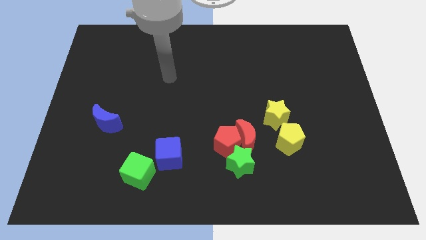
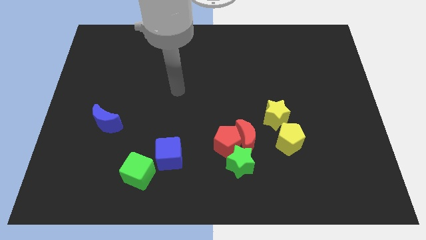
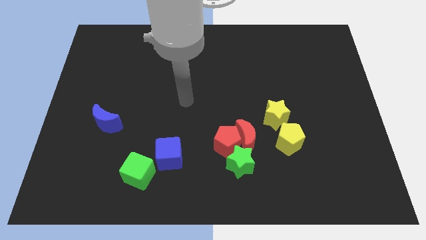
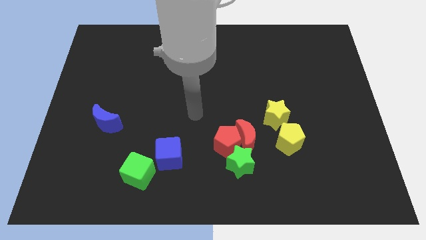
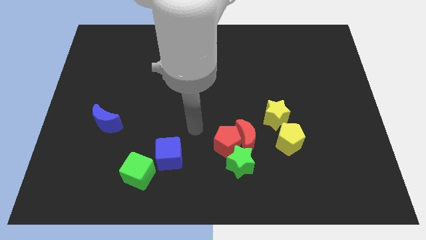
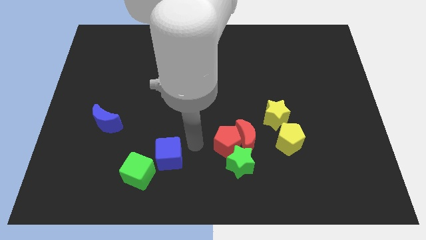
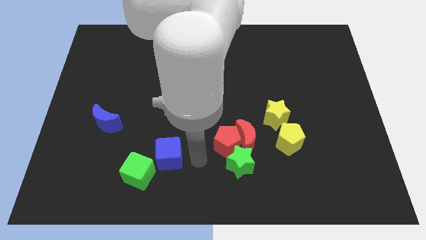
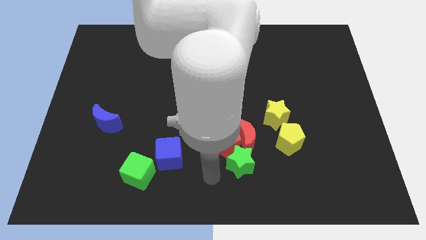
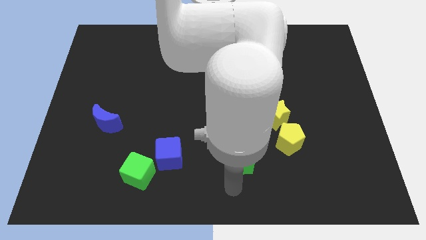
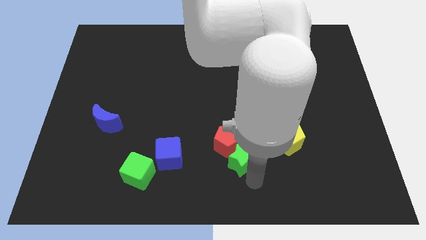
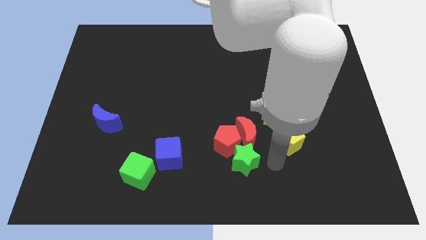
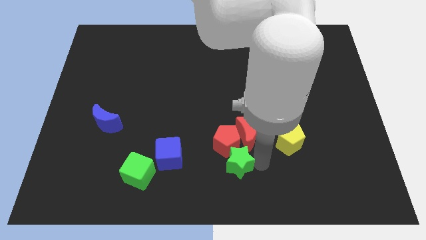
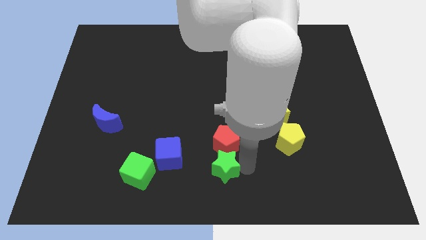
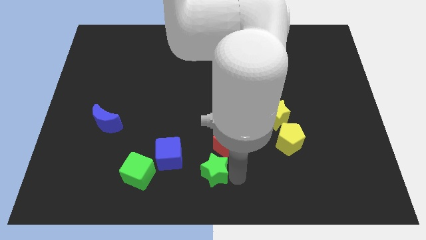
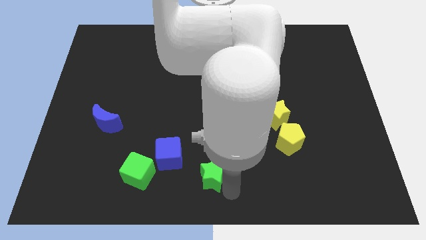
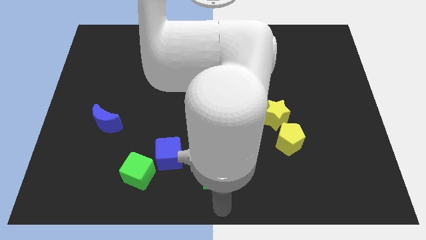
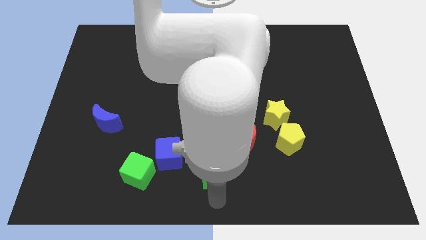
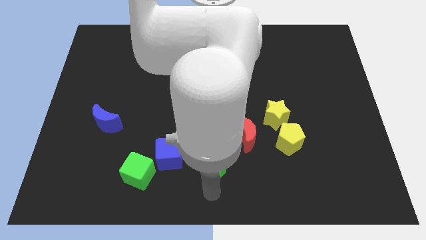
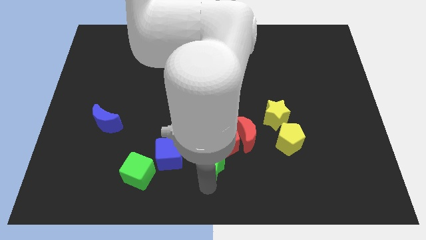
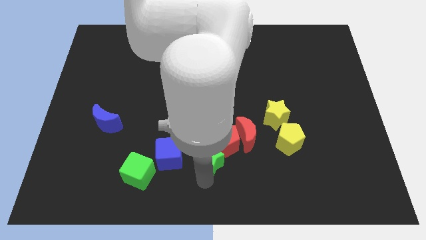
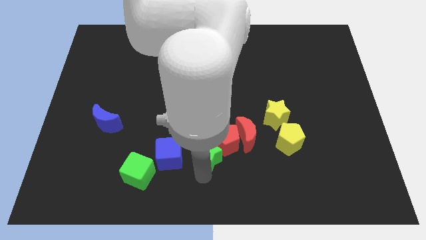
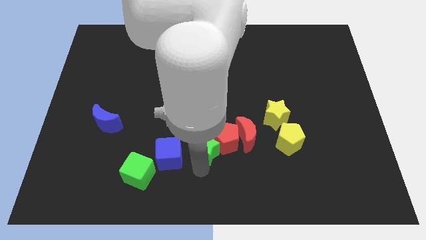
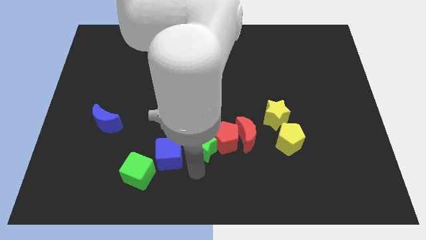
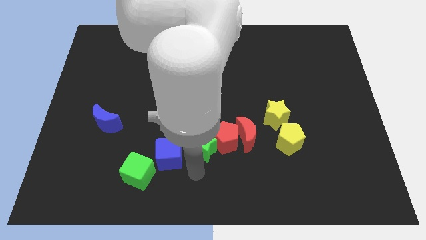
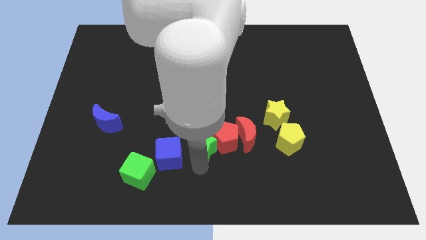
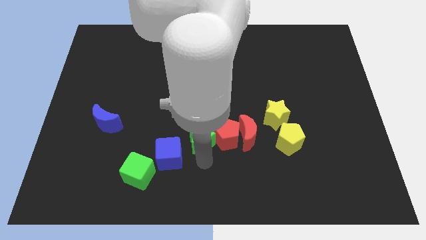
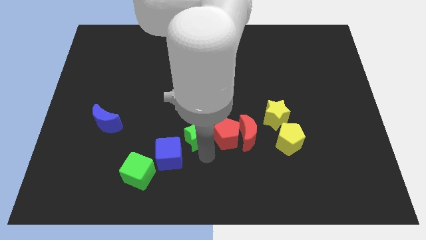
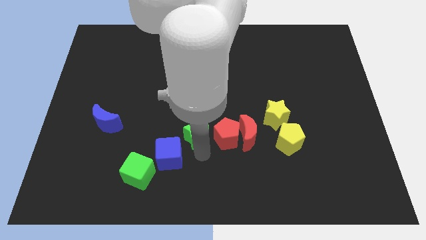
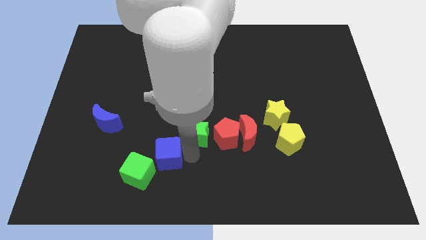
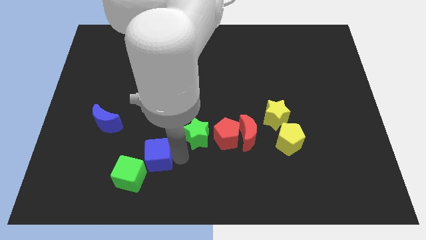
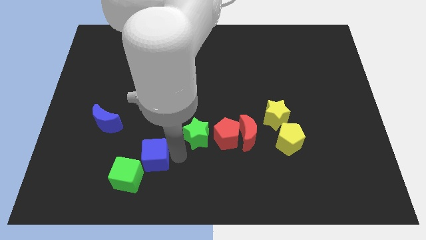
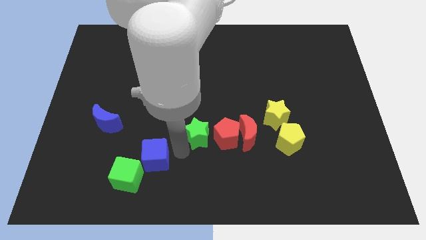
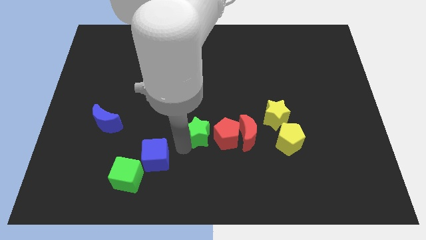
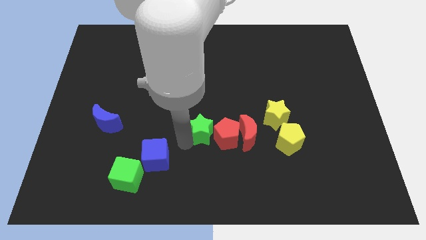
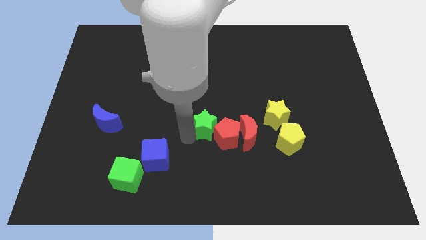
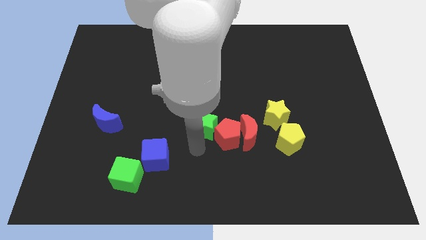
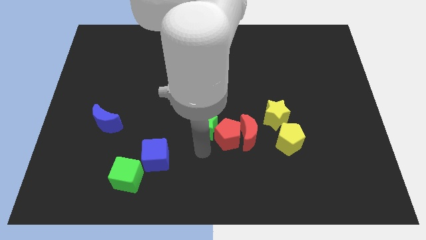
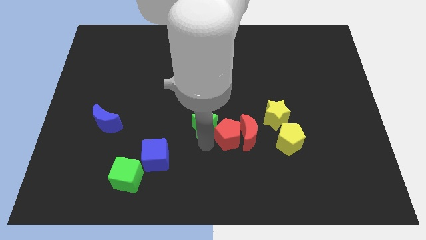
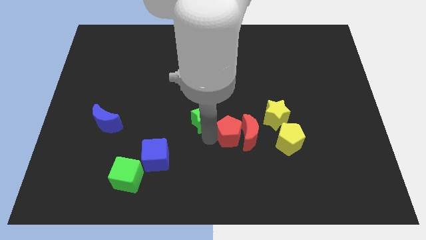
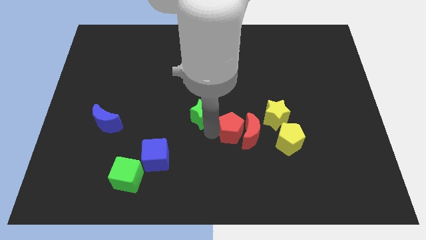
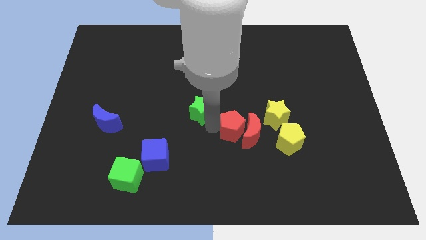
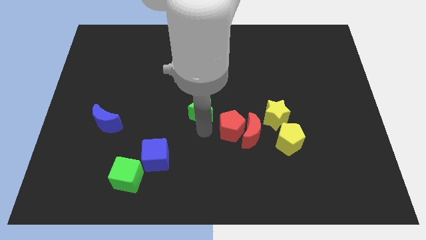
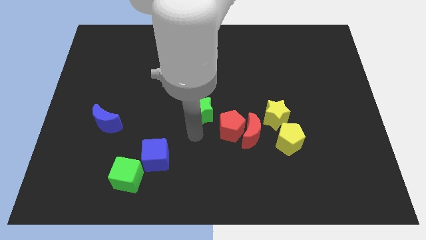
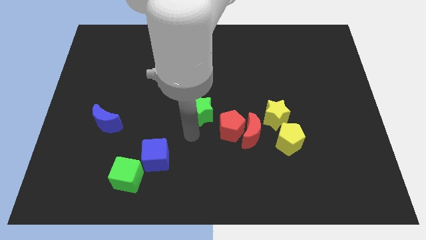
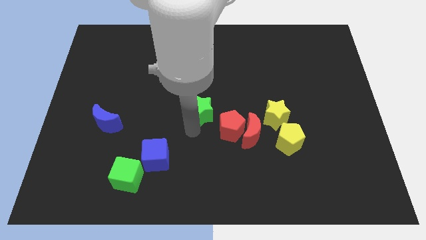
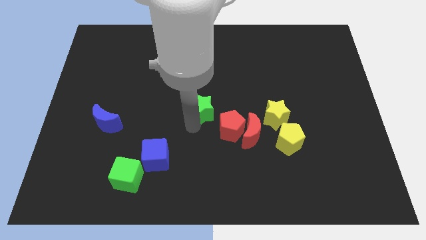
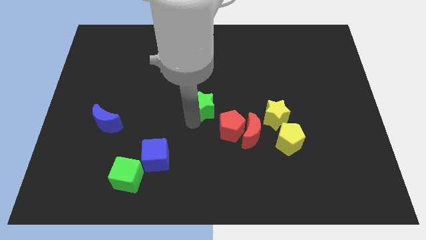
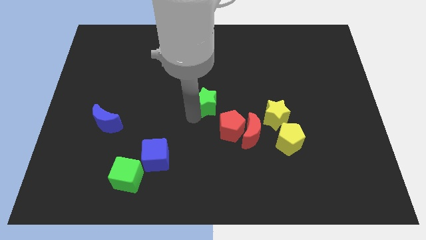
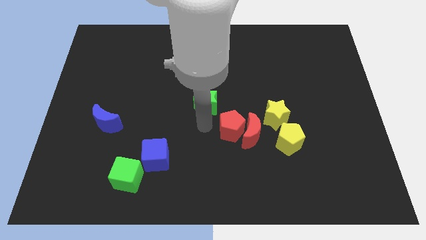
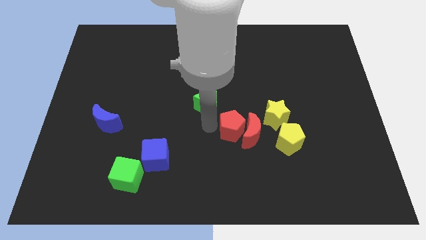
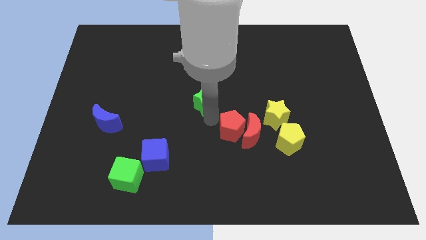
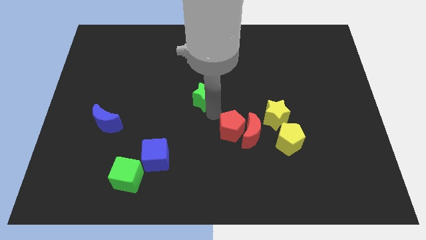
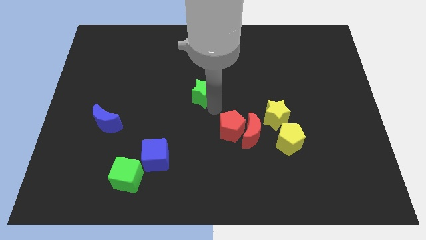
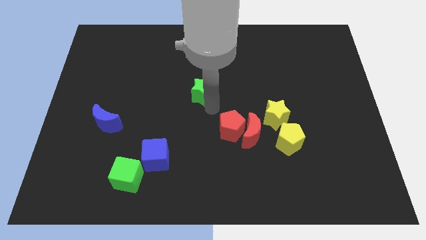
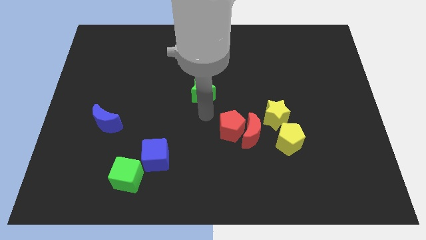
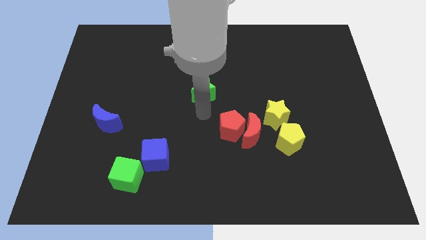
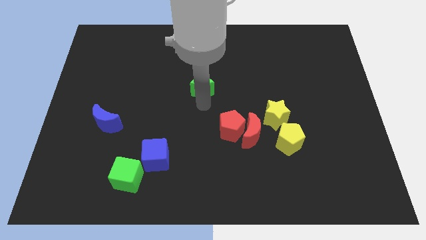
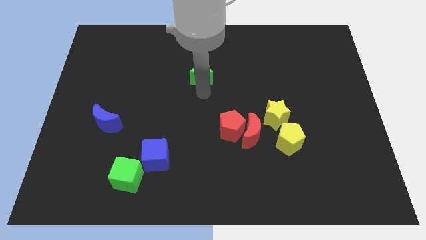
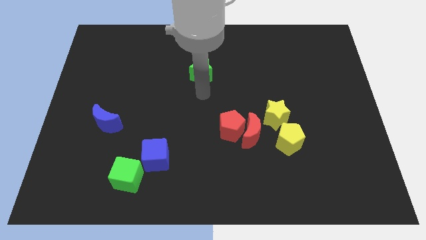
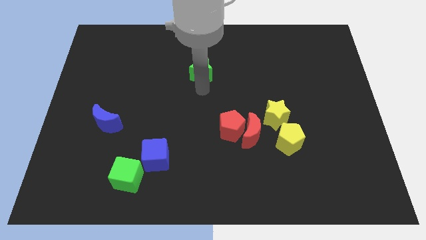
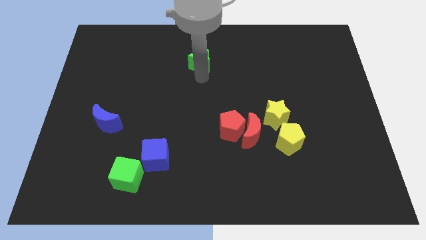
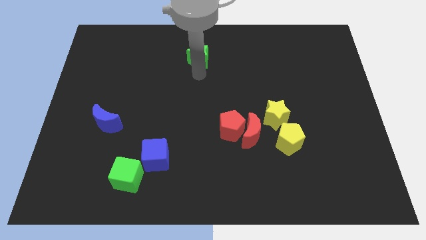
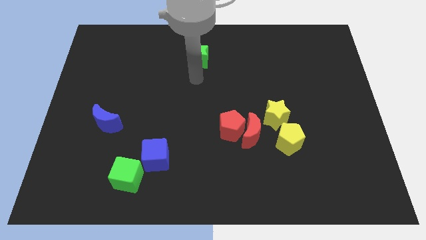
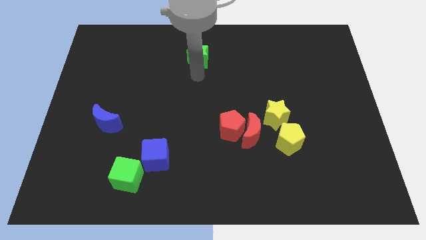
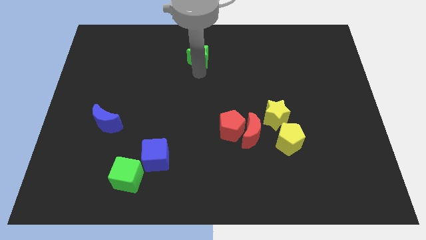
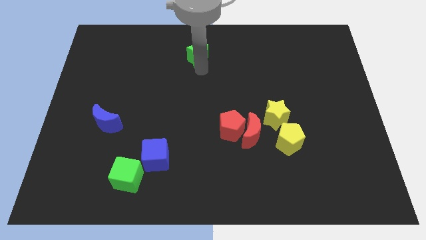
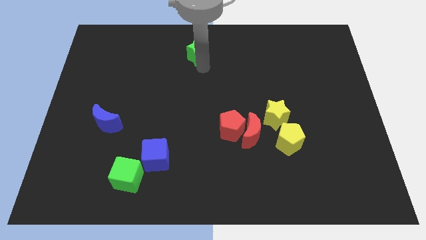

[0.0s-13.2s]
move the green star to the towards your base
